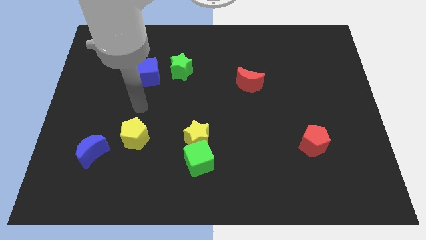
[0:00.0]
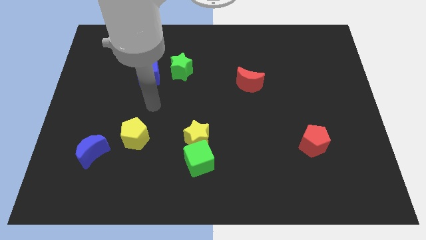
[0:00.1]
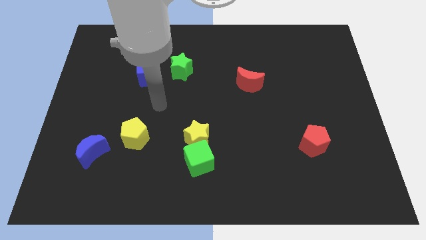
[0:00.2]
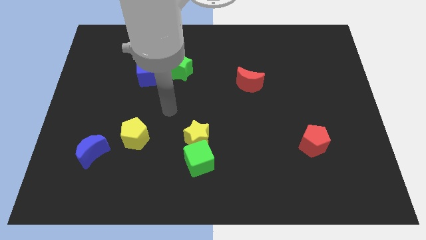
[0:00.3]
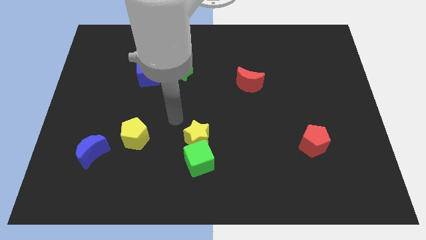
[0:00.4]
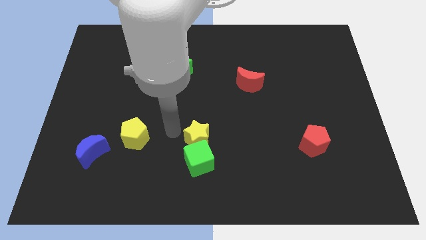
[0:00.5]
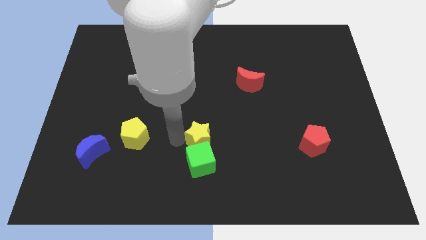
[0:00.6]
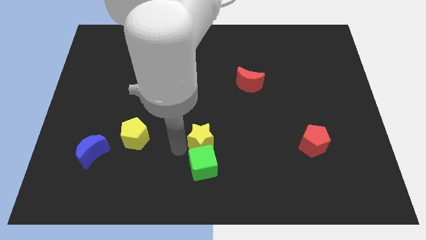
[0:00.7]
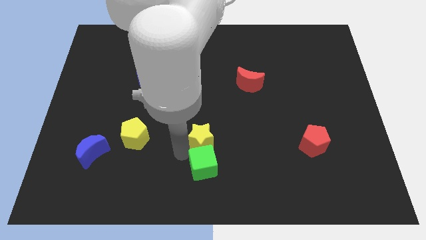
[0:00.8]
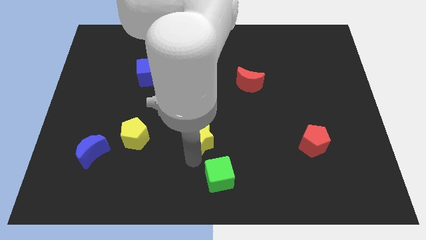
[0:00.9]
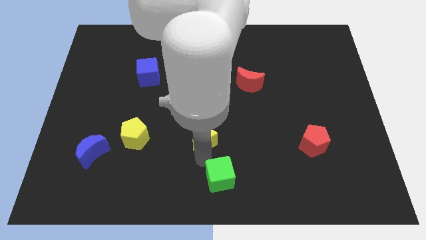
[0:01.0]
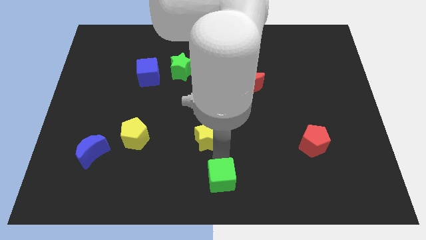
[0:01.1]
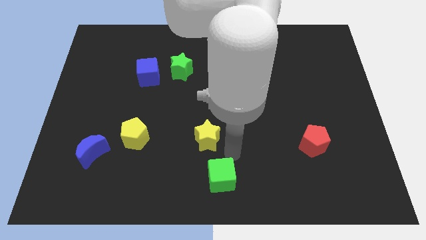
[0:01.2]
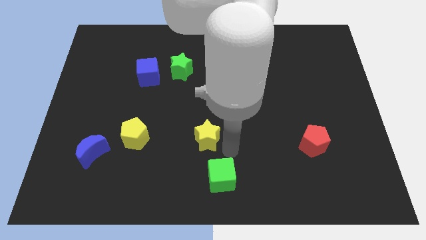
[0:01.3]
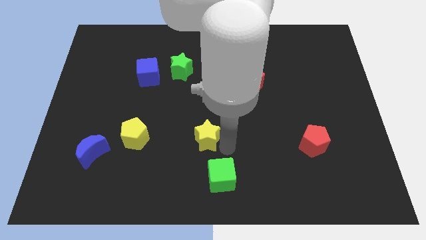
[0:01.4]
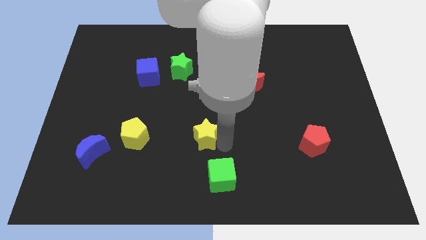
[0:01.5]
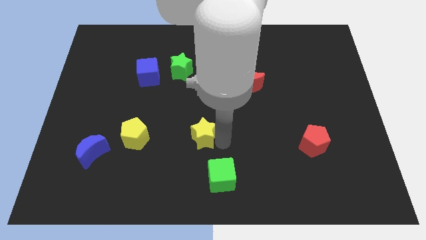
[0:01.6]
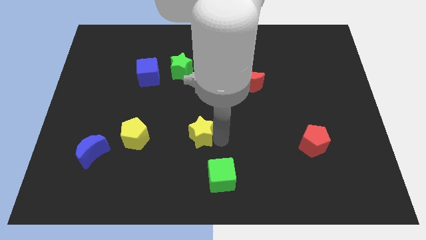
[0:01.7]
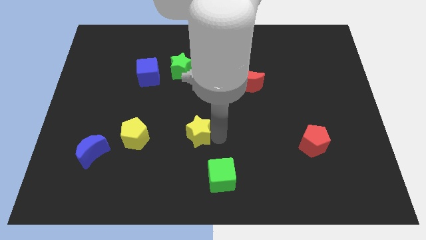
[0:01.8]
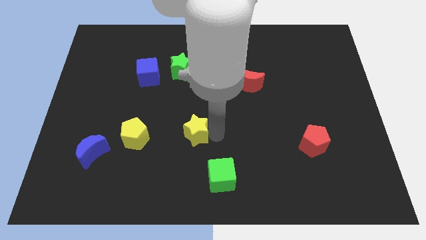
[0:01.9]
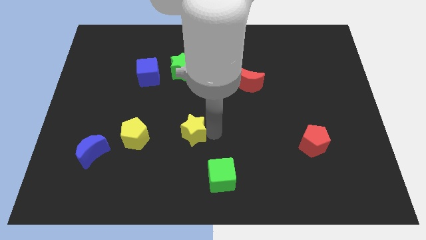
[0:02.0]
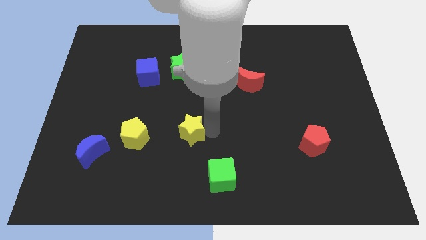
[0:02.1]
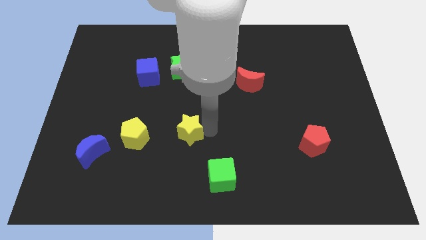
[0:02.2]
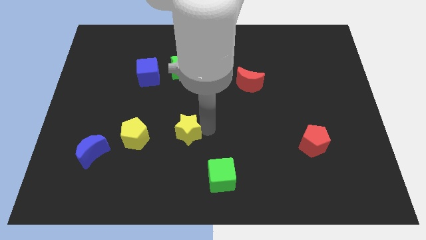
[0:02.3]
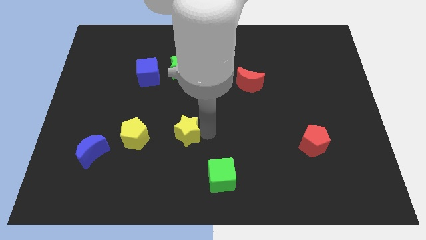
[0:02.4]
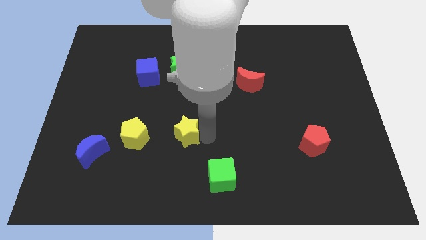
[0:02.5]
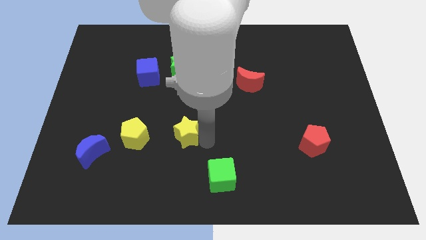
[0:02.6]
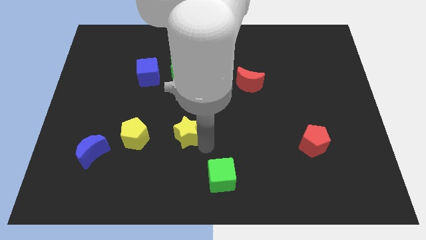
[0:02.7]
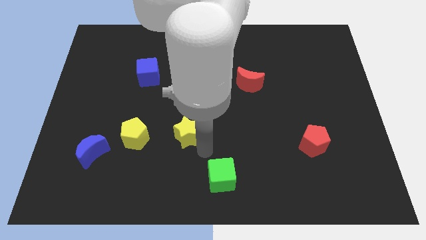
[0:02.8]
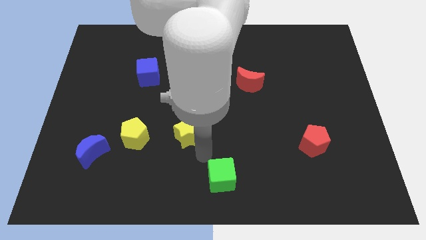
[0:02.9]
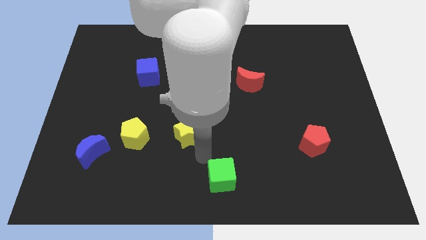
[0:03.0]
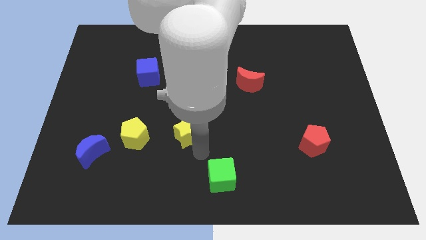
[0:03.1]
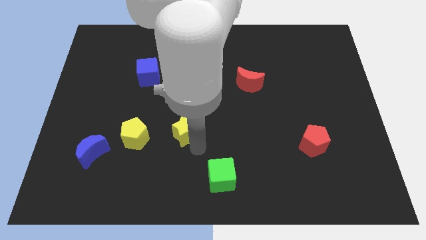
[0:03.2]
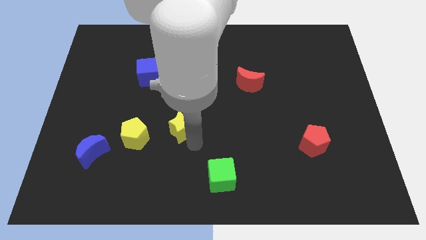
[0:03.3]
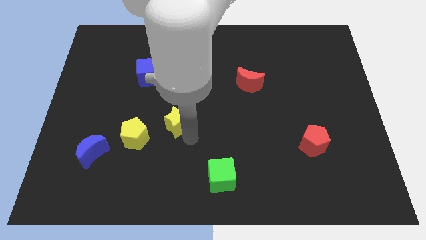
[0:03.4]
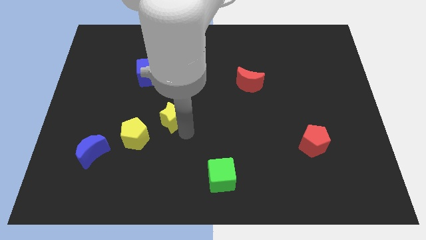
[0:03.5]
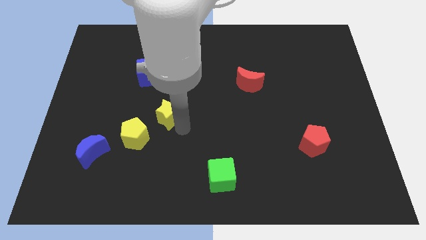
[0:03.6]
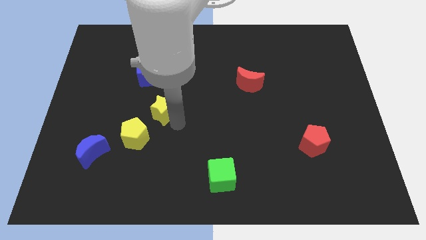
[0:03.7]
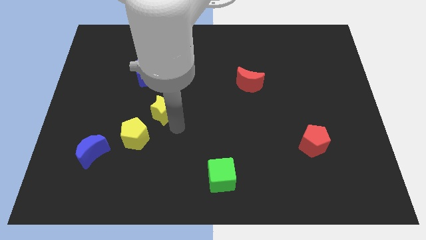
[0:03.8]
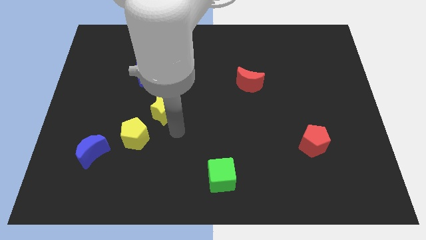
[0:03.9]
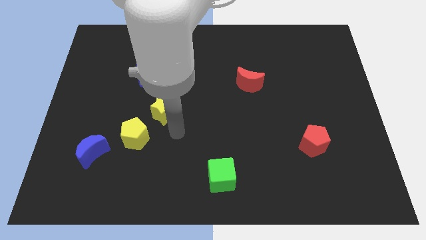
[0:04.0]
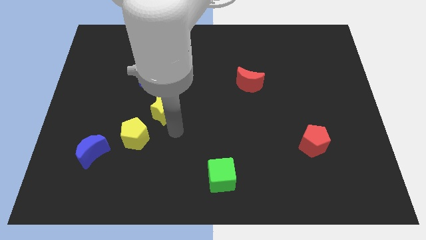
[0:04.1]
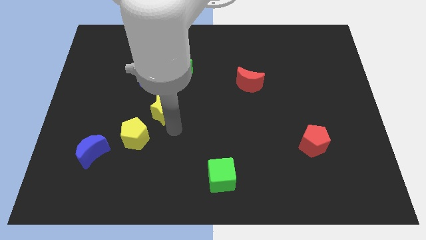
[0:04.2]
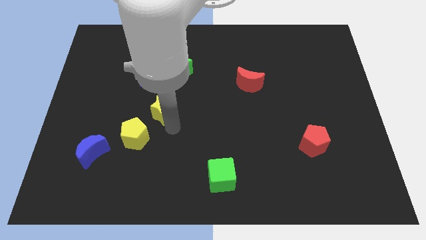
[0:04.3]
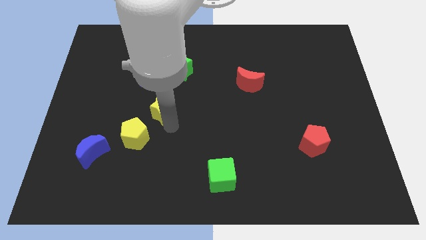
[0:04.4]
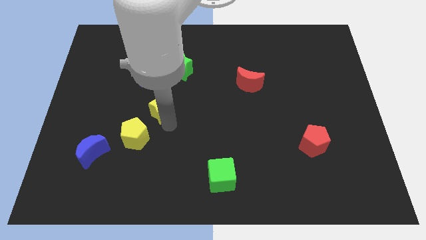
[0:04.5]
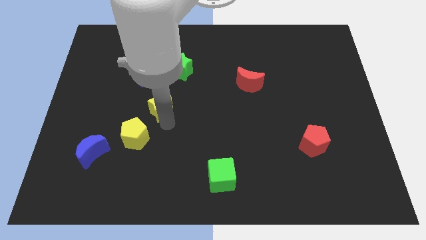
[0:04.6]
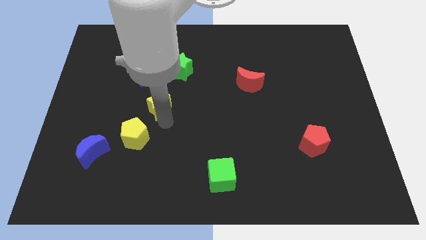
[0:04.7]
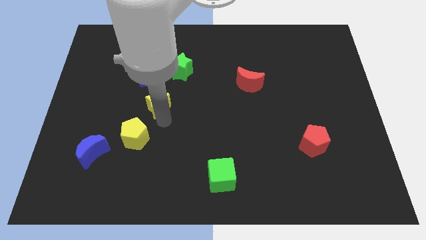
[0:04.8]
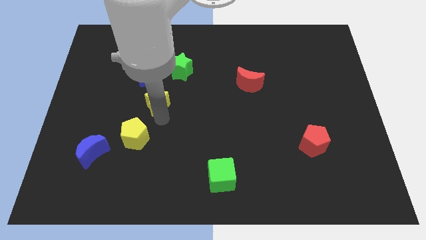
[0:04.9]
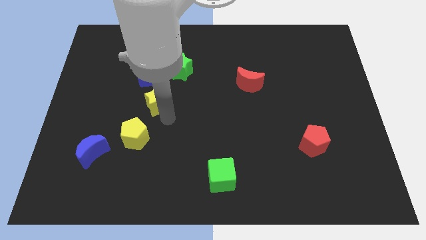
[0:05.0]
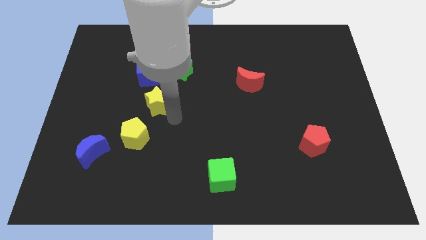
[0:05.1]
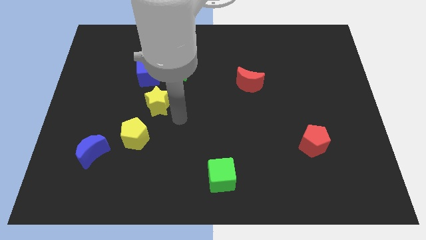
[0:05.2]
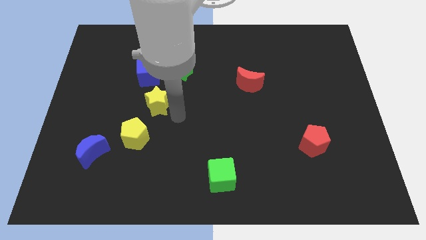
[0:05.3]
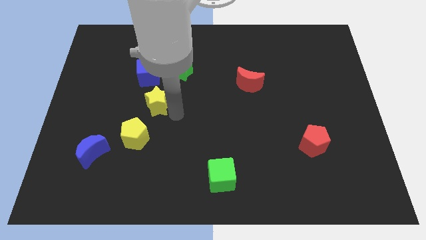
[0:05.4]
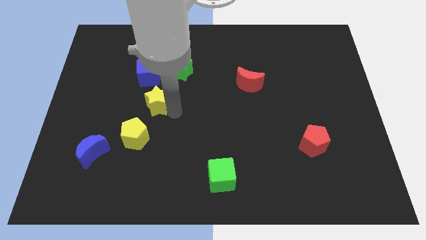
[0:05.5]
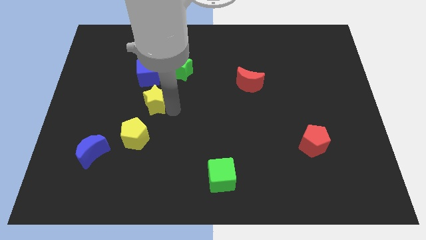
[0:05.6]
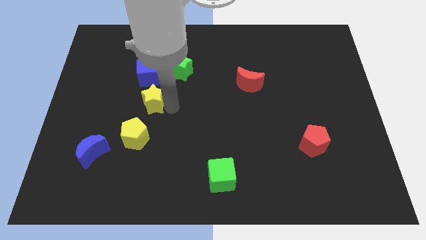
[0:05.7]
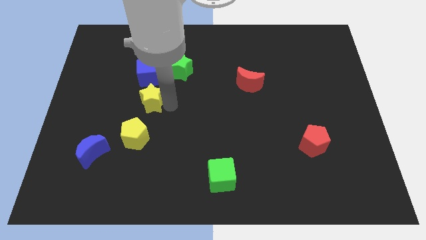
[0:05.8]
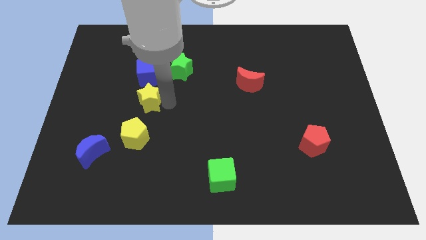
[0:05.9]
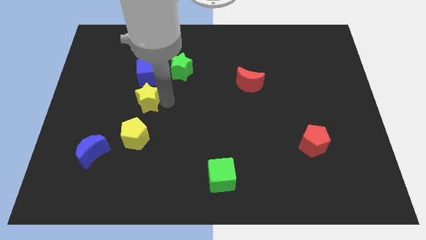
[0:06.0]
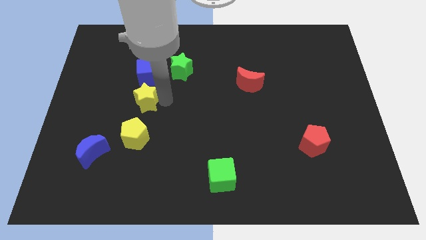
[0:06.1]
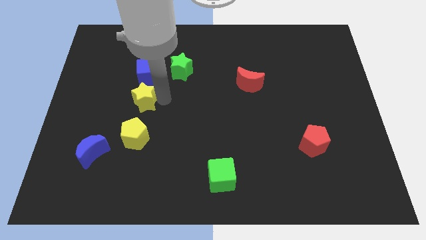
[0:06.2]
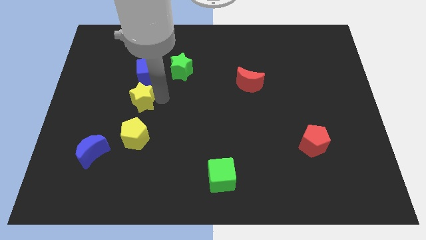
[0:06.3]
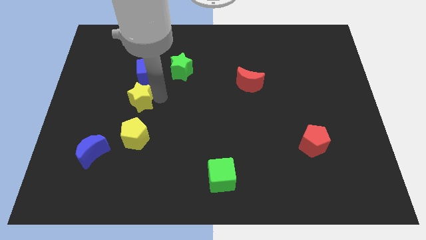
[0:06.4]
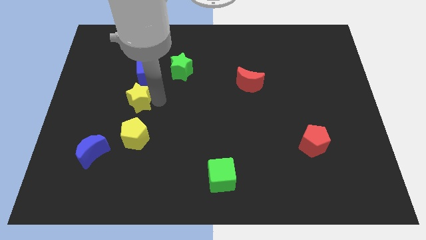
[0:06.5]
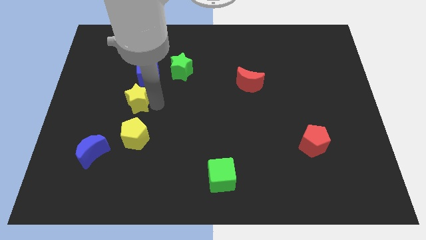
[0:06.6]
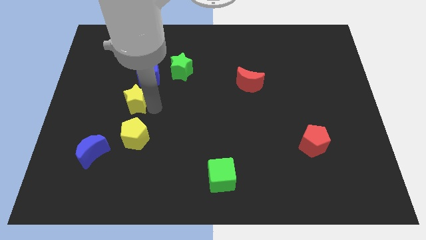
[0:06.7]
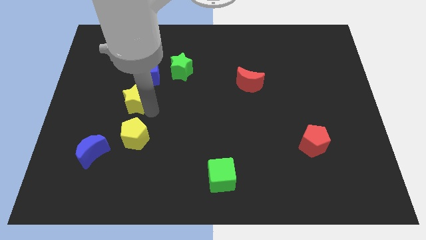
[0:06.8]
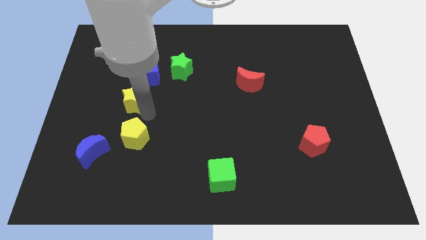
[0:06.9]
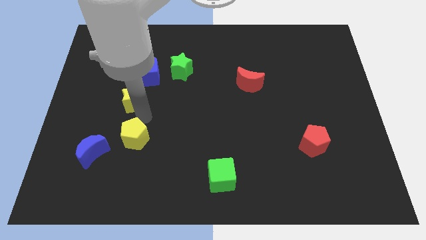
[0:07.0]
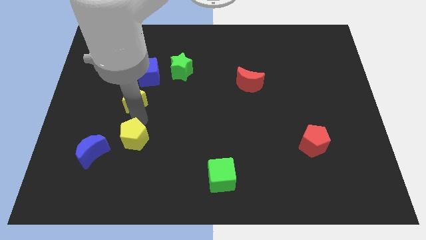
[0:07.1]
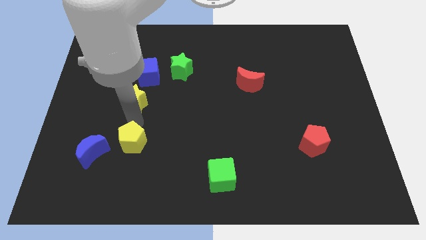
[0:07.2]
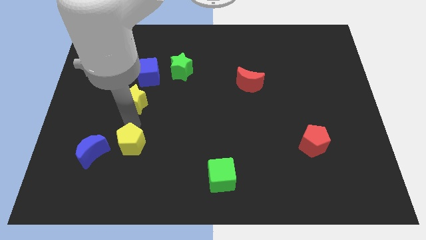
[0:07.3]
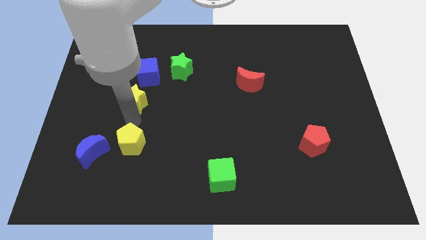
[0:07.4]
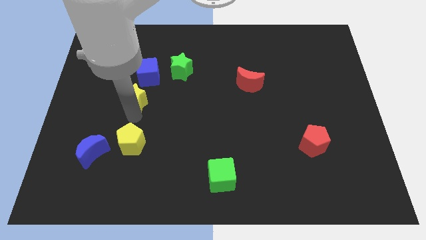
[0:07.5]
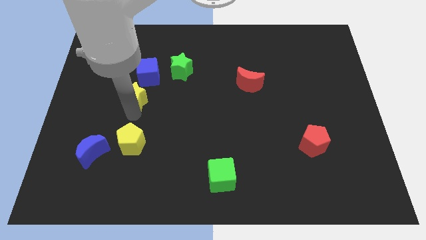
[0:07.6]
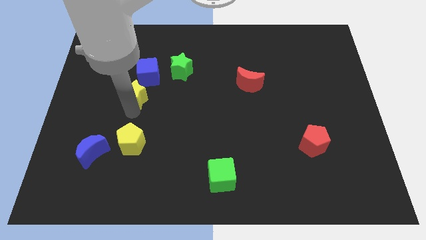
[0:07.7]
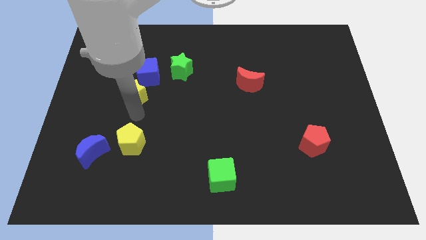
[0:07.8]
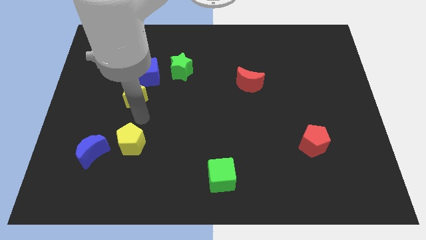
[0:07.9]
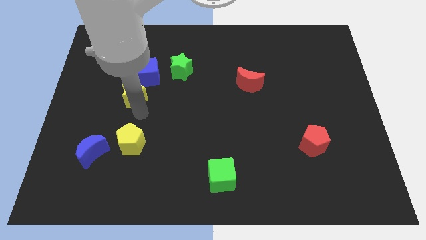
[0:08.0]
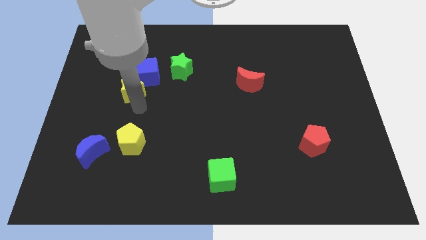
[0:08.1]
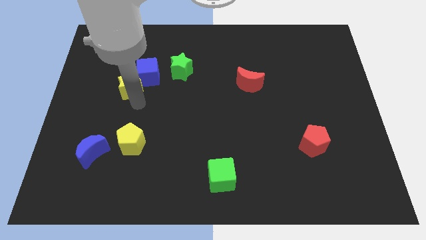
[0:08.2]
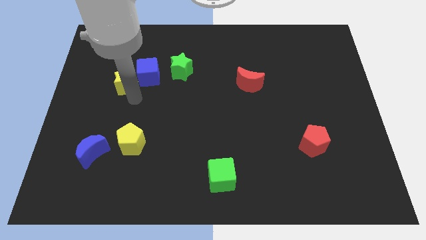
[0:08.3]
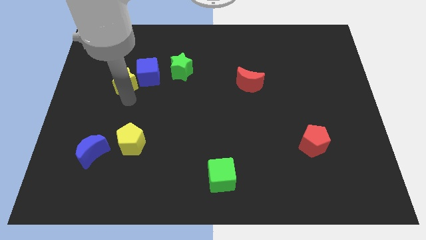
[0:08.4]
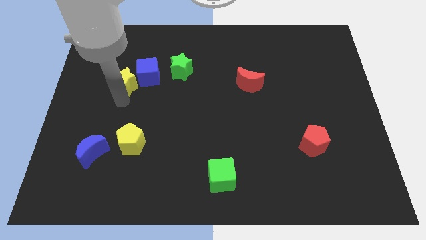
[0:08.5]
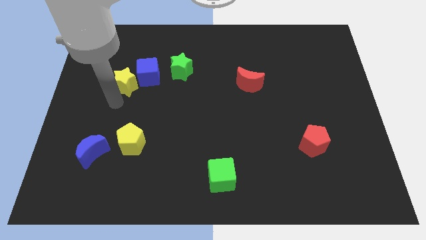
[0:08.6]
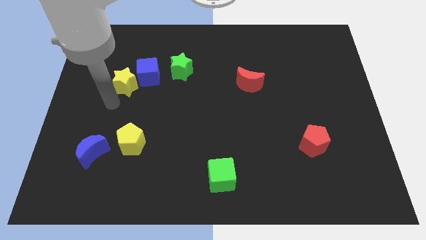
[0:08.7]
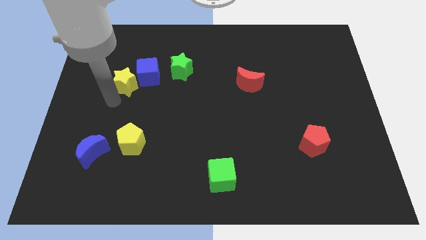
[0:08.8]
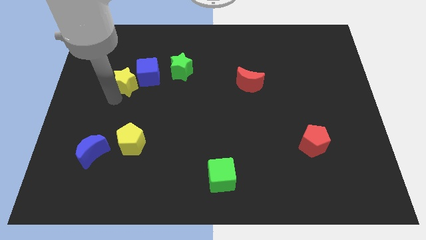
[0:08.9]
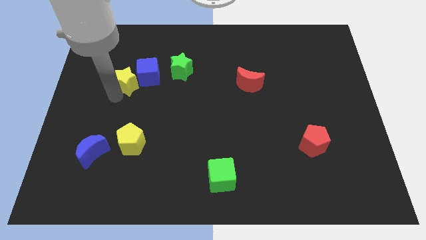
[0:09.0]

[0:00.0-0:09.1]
push the yellow star left of the green star
